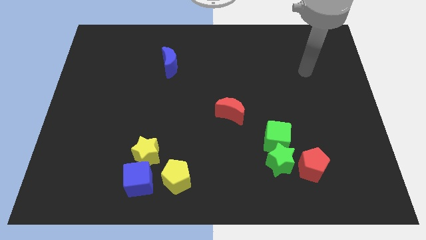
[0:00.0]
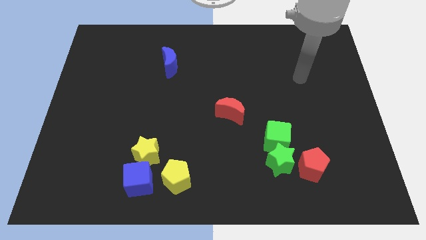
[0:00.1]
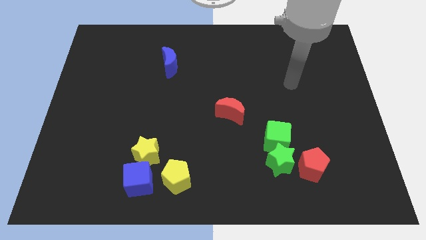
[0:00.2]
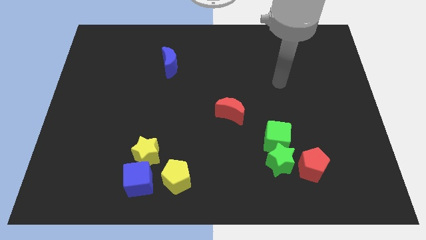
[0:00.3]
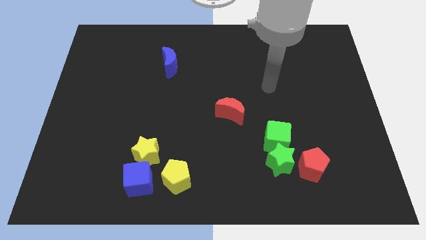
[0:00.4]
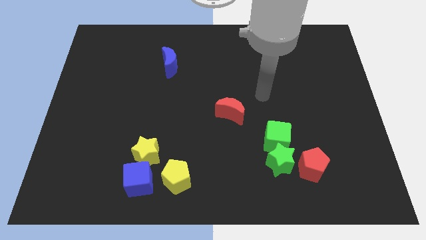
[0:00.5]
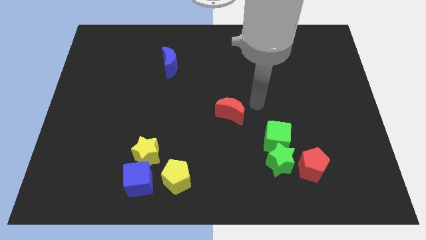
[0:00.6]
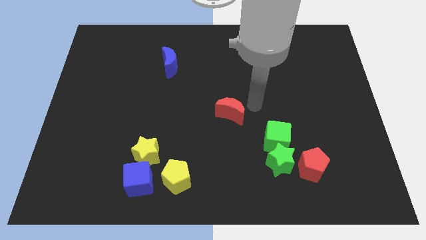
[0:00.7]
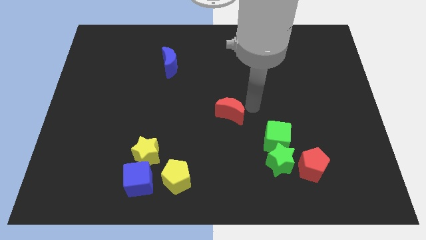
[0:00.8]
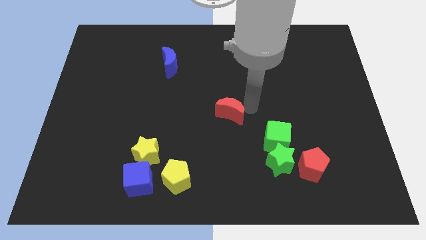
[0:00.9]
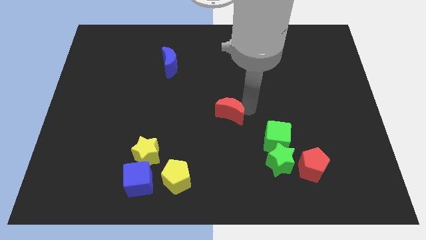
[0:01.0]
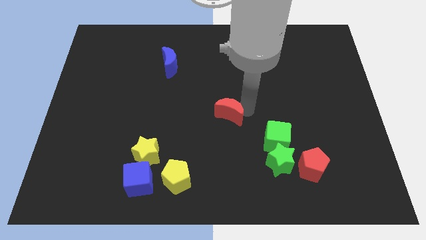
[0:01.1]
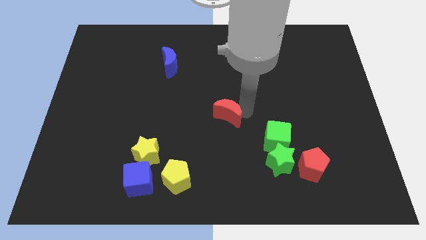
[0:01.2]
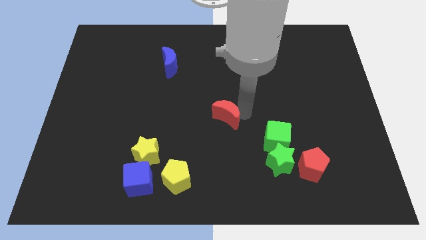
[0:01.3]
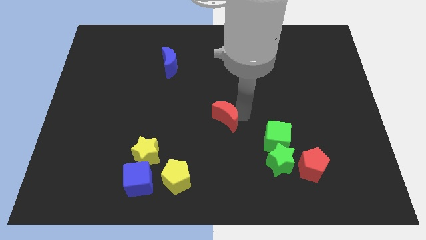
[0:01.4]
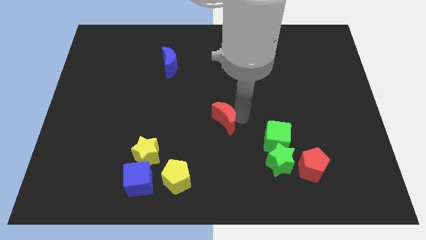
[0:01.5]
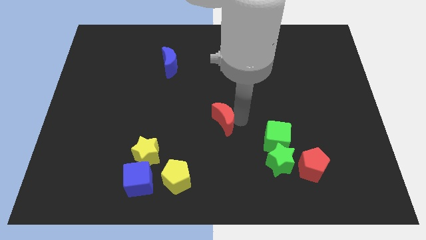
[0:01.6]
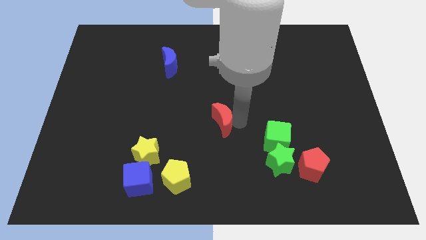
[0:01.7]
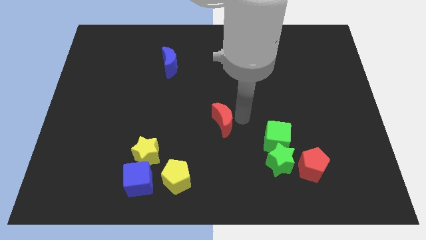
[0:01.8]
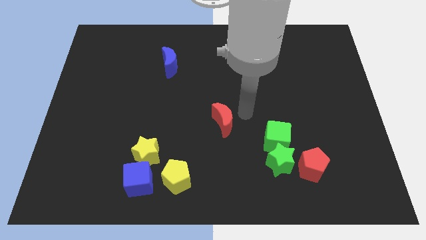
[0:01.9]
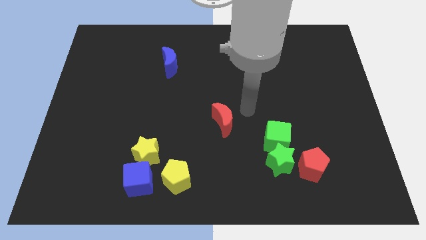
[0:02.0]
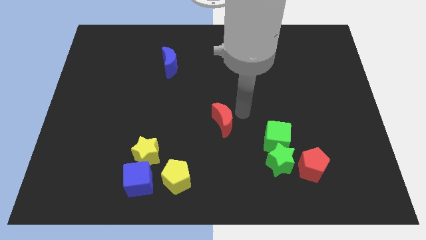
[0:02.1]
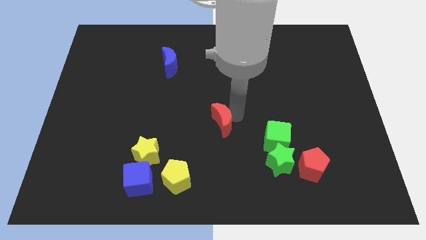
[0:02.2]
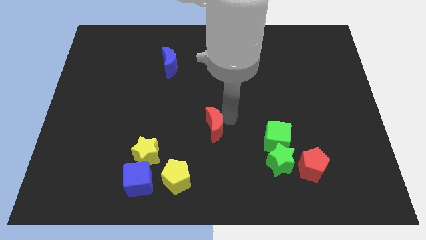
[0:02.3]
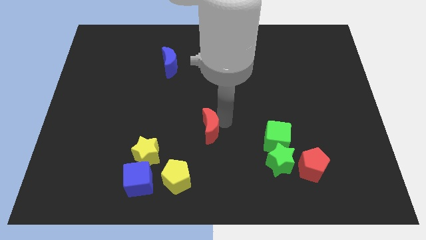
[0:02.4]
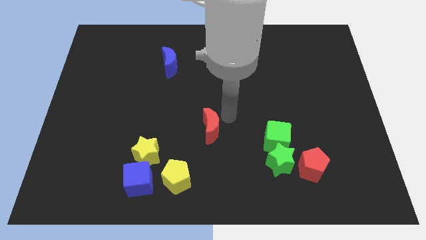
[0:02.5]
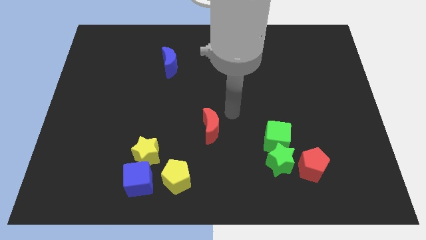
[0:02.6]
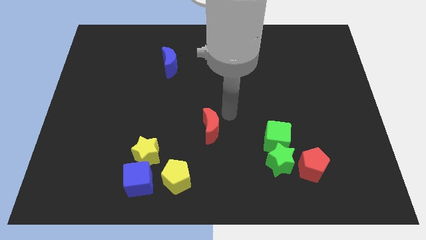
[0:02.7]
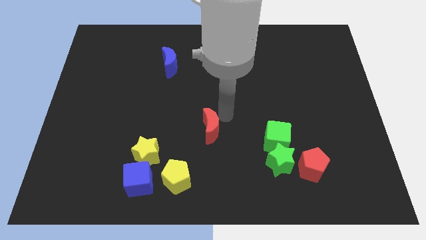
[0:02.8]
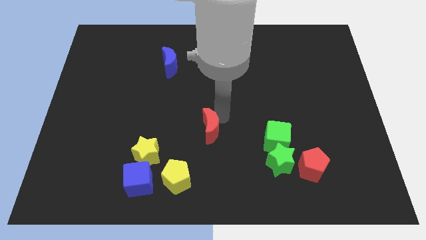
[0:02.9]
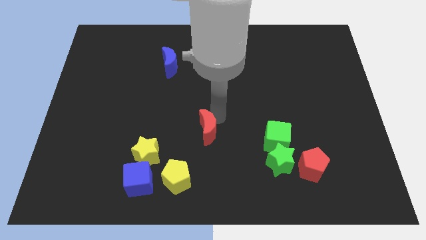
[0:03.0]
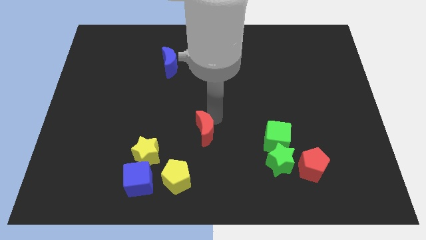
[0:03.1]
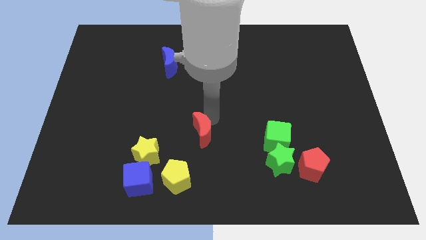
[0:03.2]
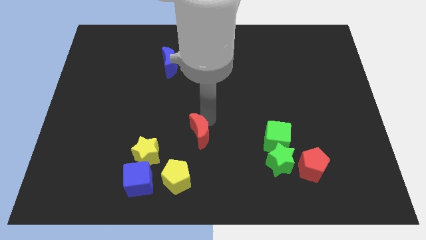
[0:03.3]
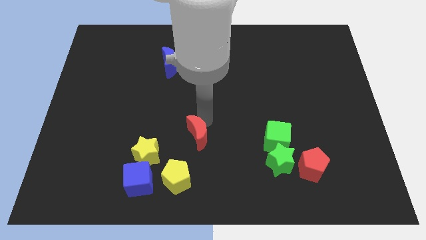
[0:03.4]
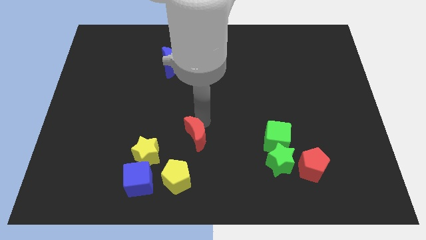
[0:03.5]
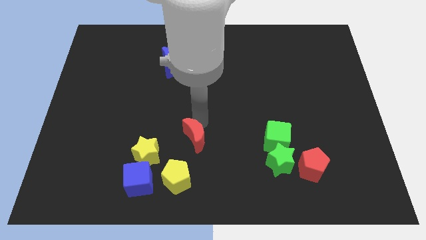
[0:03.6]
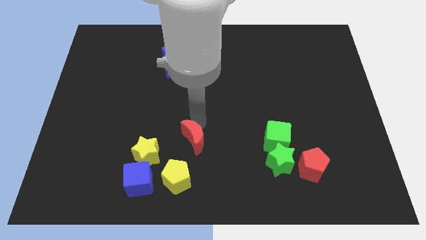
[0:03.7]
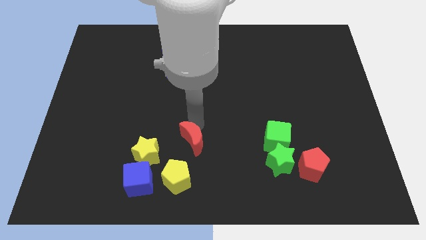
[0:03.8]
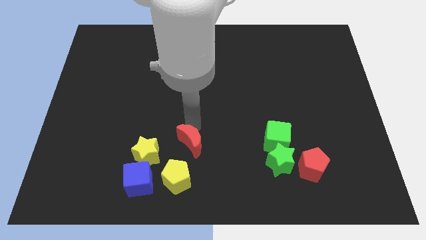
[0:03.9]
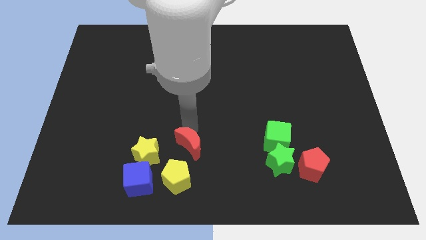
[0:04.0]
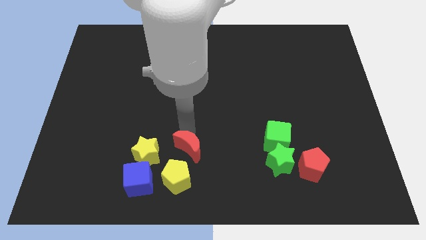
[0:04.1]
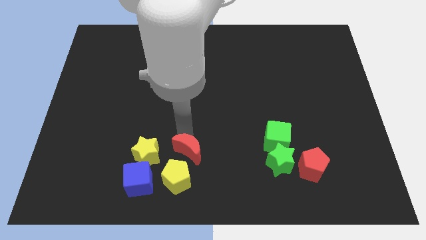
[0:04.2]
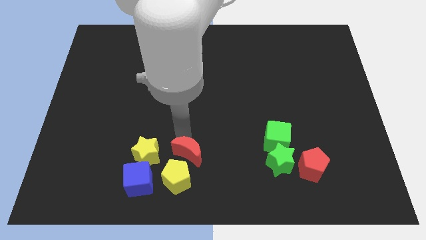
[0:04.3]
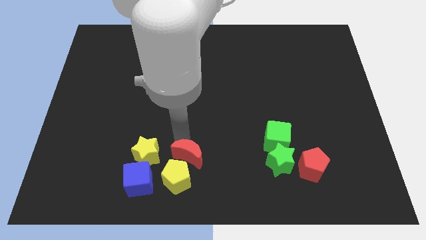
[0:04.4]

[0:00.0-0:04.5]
push the red moon to the yellow pentagon

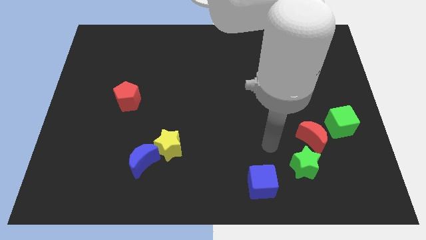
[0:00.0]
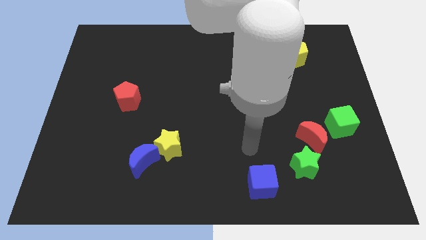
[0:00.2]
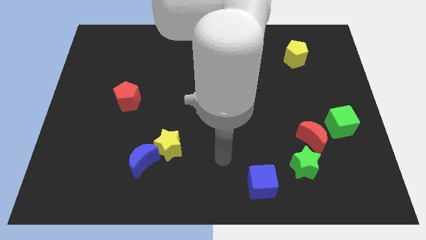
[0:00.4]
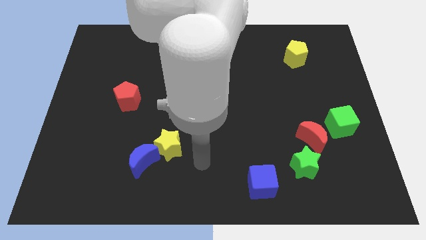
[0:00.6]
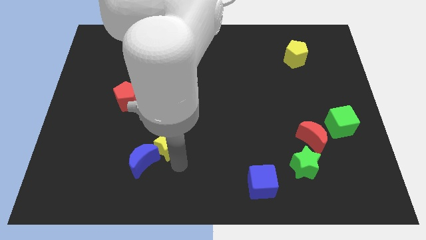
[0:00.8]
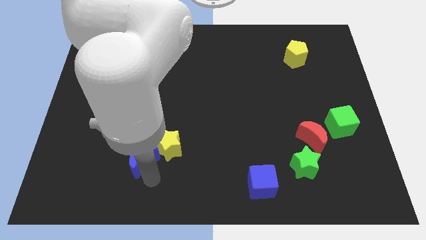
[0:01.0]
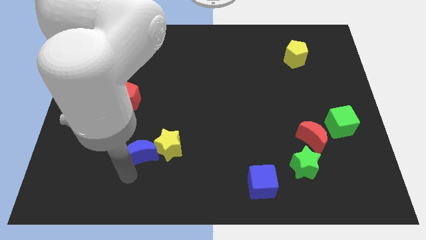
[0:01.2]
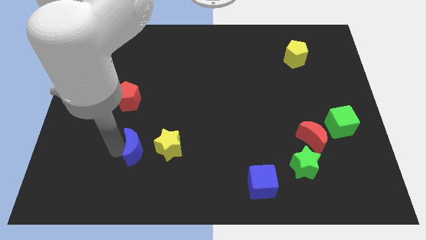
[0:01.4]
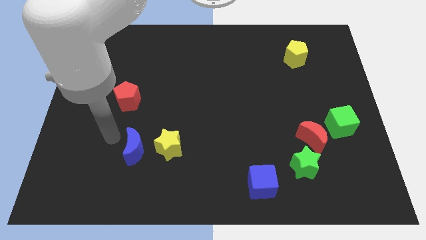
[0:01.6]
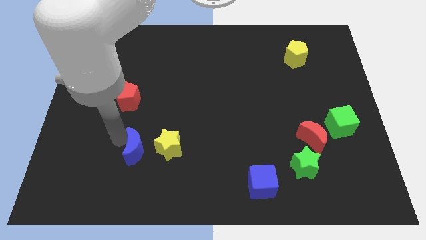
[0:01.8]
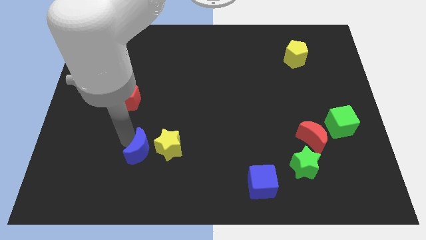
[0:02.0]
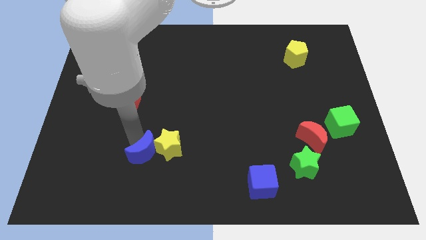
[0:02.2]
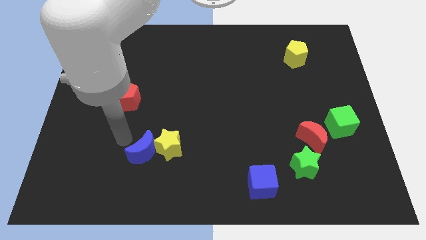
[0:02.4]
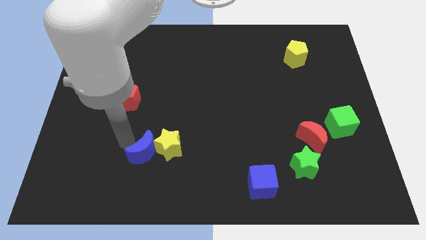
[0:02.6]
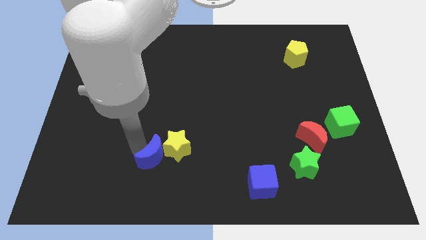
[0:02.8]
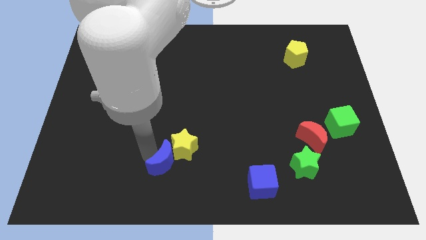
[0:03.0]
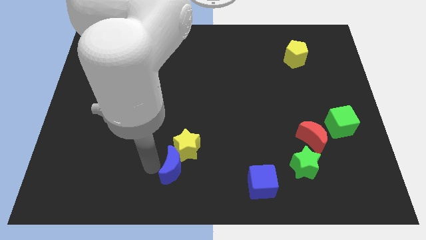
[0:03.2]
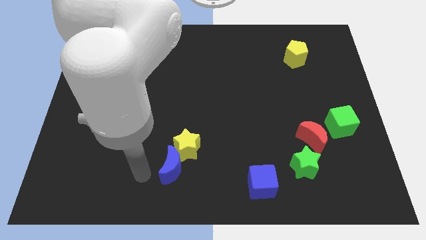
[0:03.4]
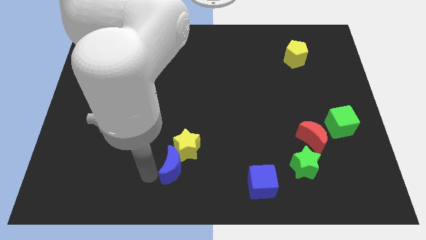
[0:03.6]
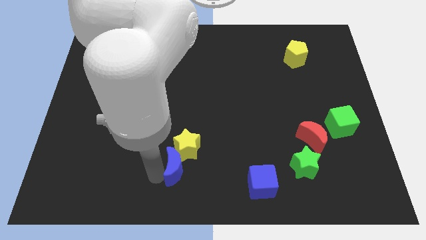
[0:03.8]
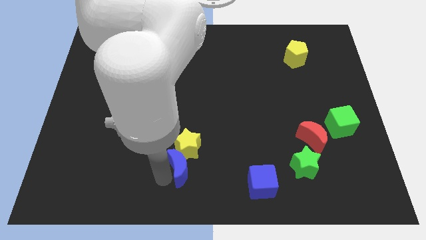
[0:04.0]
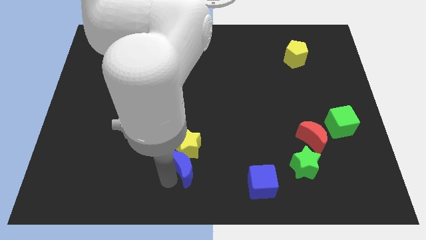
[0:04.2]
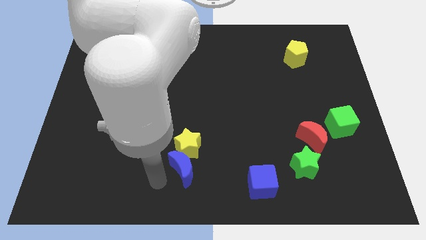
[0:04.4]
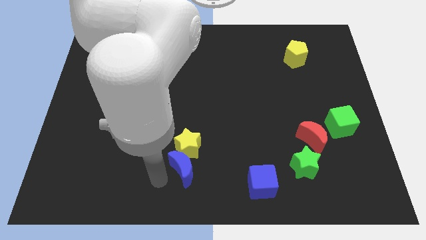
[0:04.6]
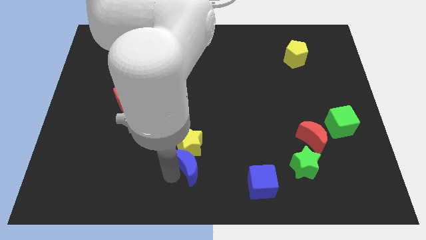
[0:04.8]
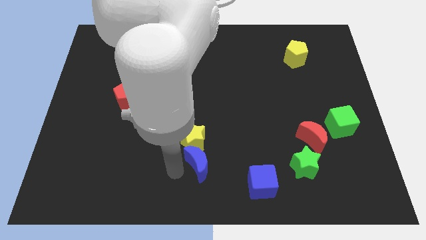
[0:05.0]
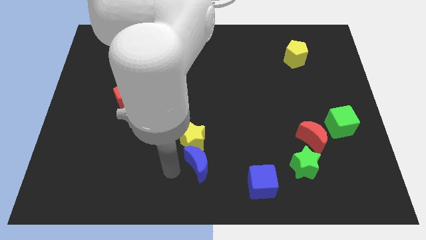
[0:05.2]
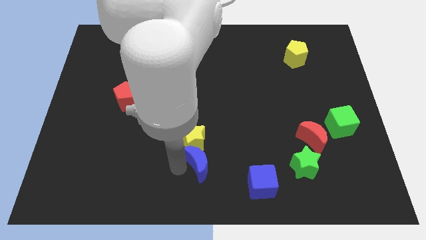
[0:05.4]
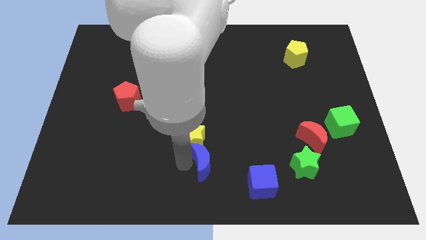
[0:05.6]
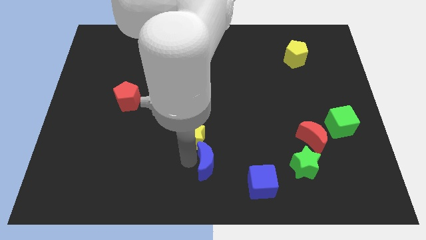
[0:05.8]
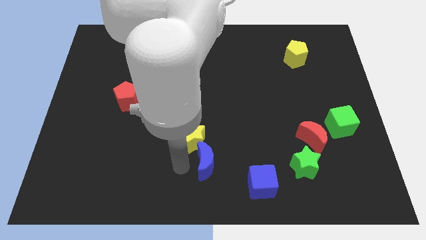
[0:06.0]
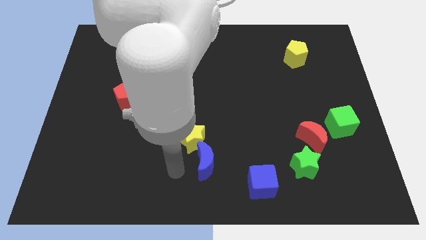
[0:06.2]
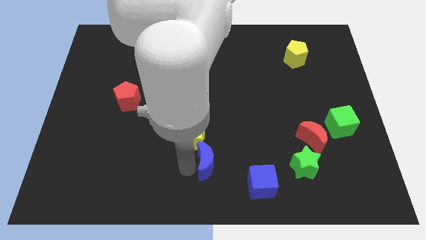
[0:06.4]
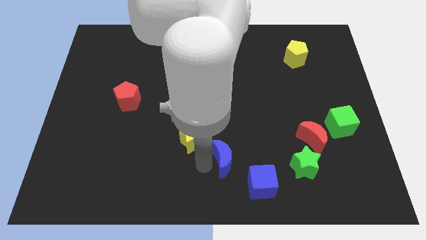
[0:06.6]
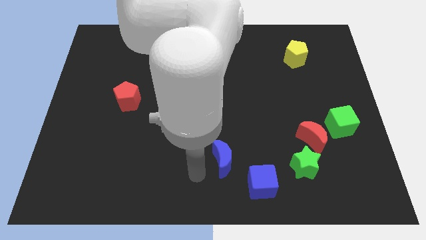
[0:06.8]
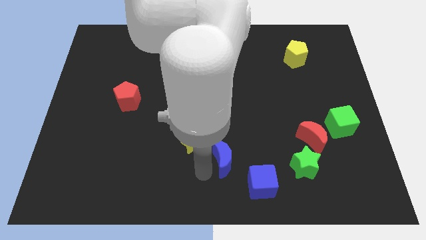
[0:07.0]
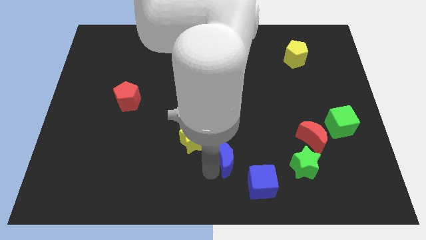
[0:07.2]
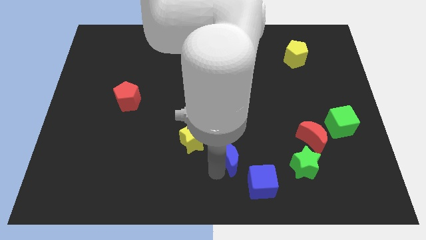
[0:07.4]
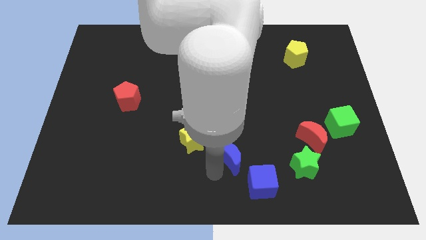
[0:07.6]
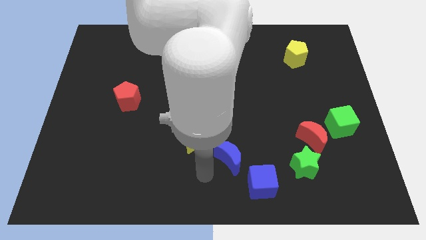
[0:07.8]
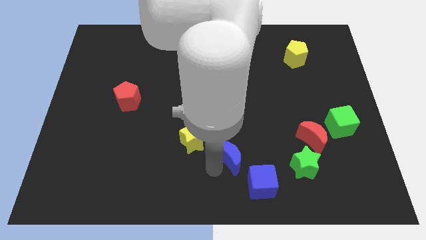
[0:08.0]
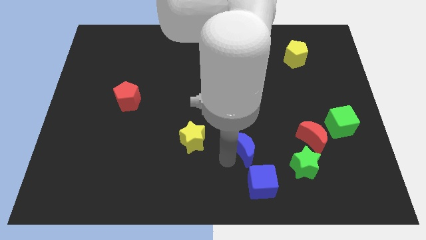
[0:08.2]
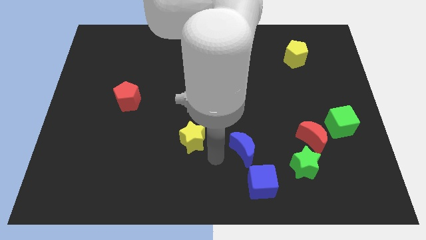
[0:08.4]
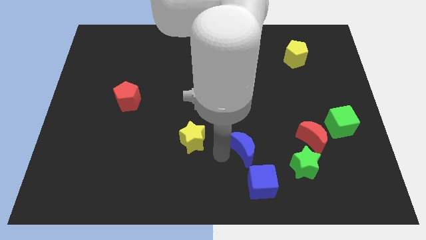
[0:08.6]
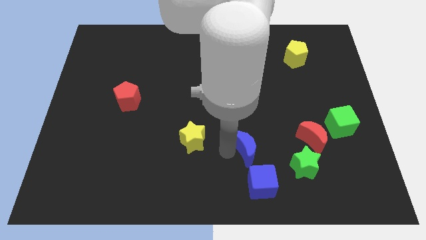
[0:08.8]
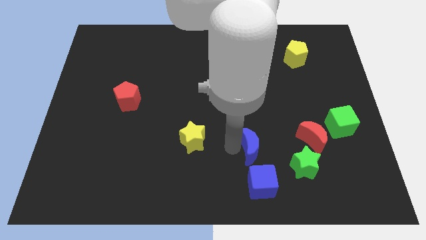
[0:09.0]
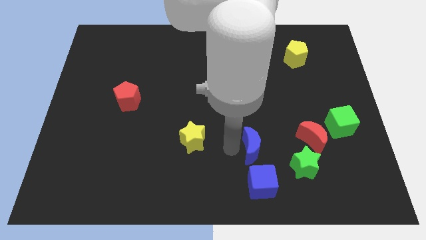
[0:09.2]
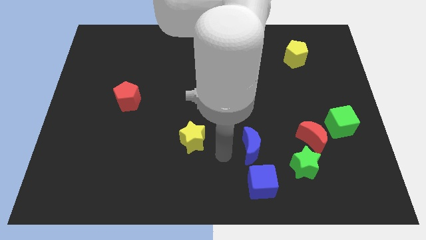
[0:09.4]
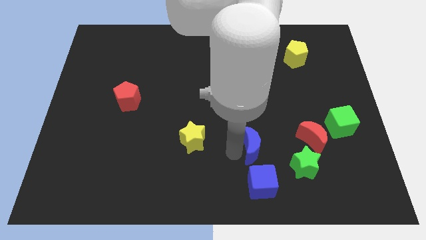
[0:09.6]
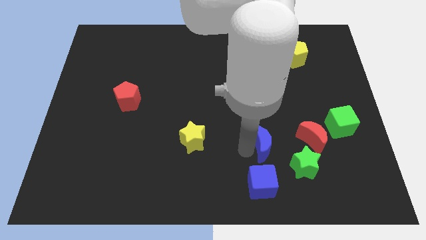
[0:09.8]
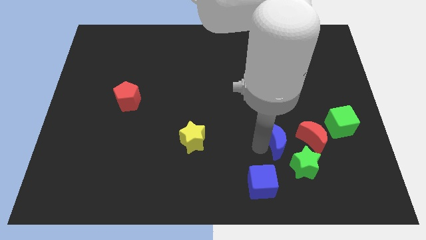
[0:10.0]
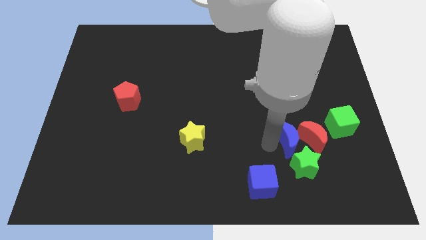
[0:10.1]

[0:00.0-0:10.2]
slide the blue moon to the red moon
